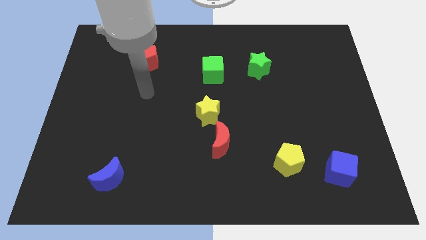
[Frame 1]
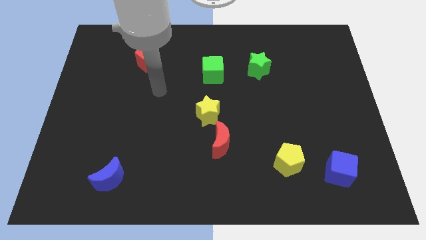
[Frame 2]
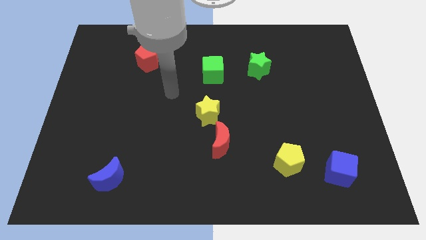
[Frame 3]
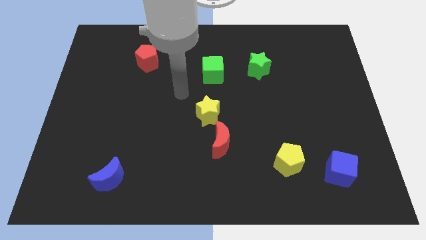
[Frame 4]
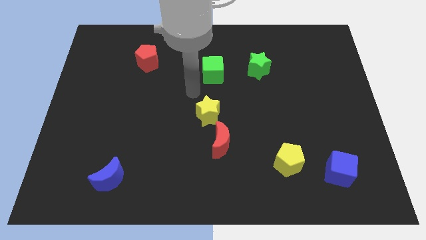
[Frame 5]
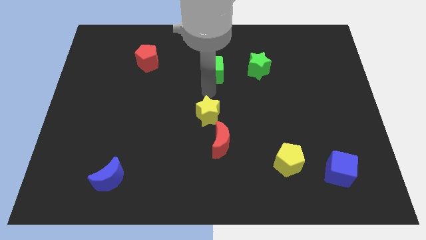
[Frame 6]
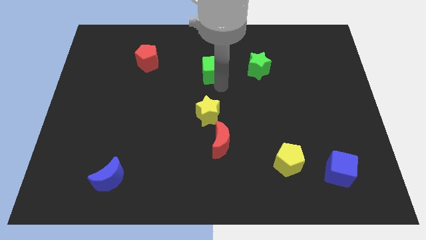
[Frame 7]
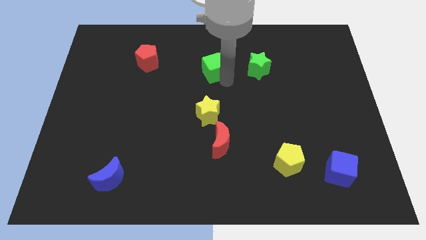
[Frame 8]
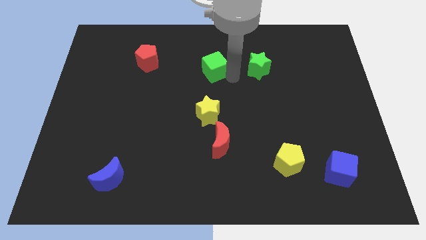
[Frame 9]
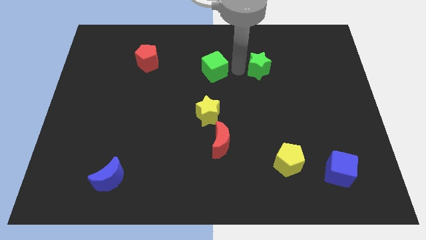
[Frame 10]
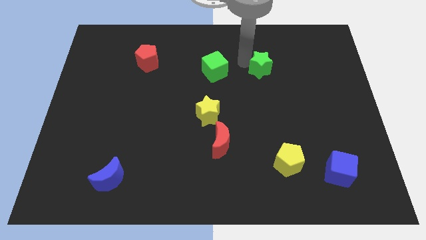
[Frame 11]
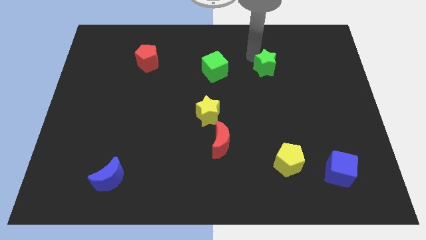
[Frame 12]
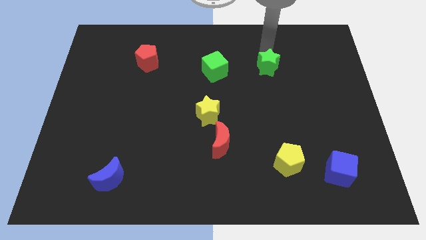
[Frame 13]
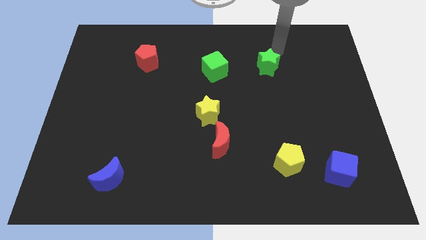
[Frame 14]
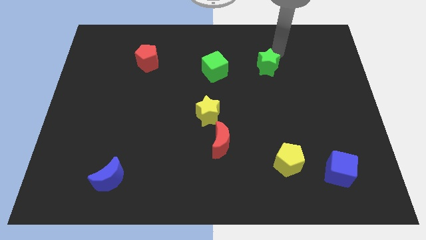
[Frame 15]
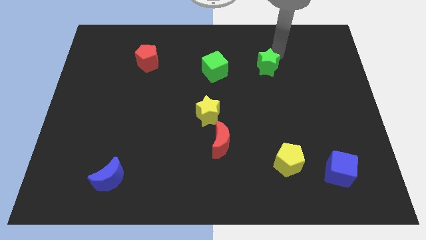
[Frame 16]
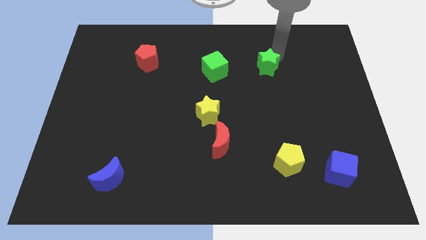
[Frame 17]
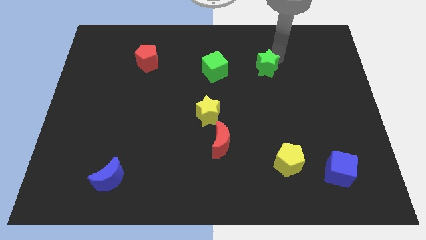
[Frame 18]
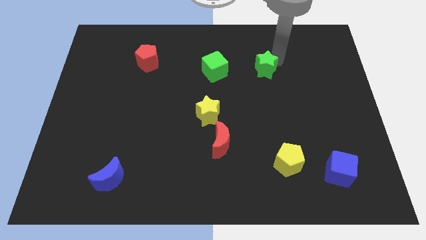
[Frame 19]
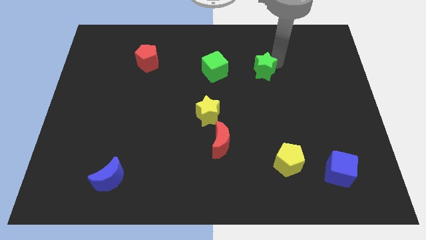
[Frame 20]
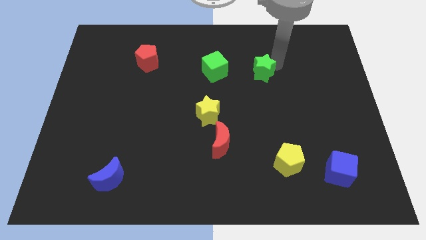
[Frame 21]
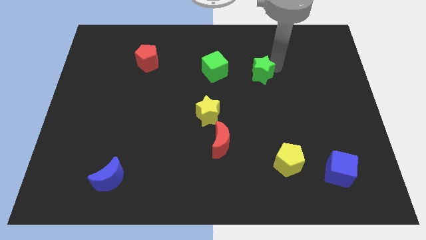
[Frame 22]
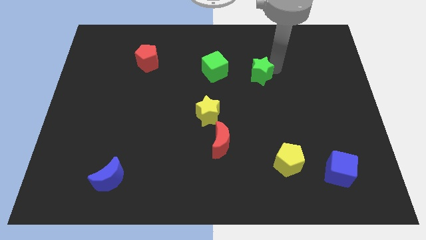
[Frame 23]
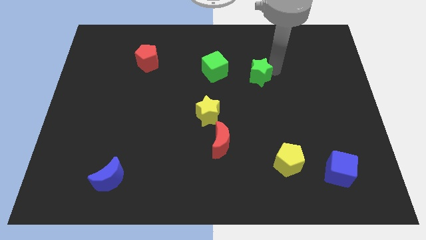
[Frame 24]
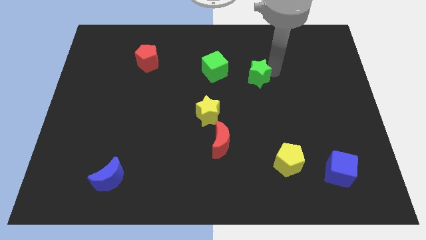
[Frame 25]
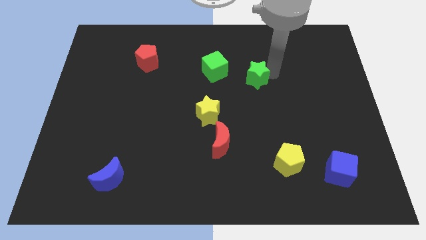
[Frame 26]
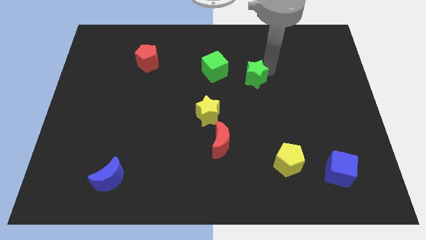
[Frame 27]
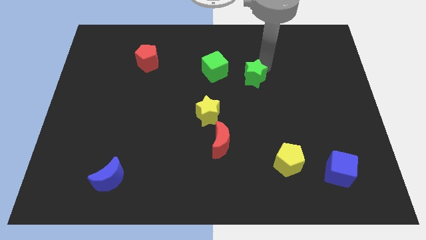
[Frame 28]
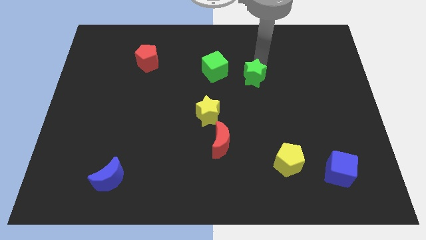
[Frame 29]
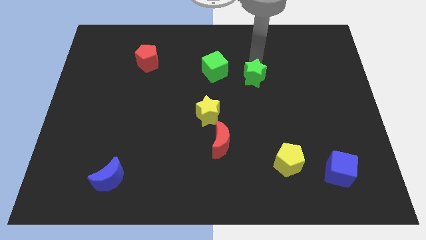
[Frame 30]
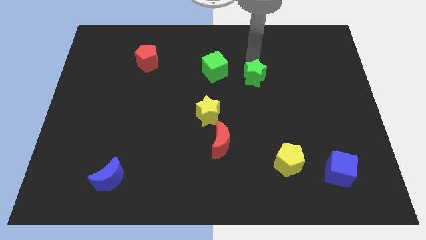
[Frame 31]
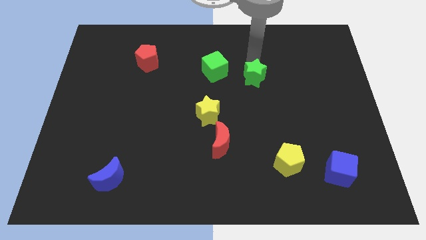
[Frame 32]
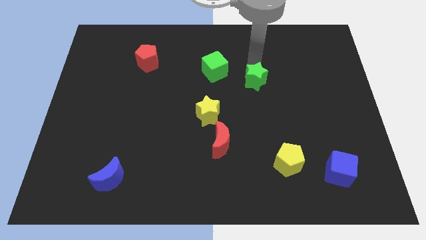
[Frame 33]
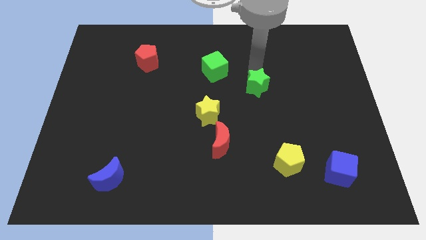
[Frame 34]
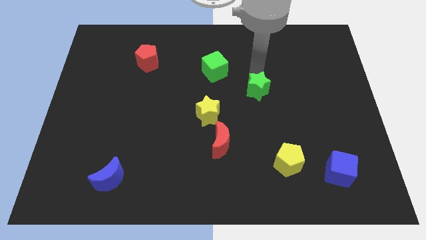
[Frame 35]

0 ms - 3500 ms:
slightly move the green star down

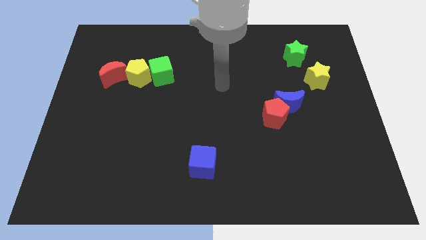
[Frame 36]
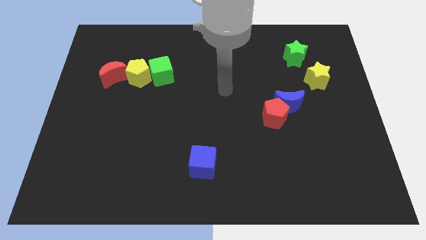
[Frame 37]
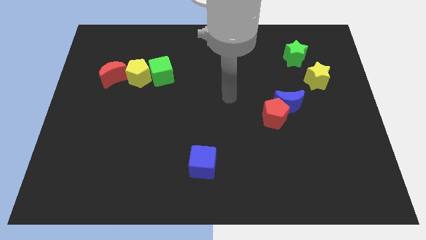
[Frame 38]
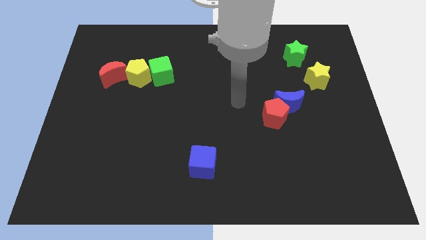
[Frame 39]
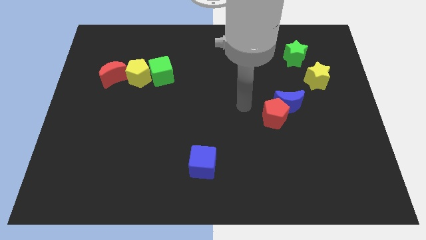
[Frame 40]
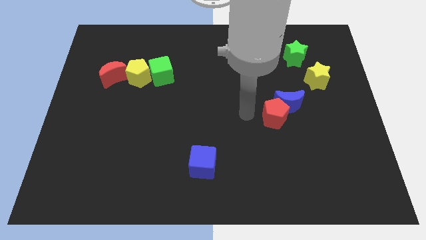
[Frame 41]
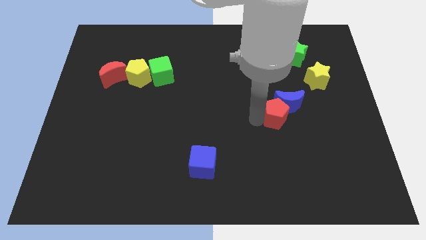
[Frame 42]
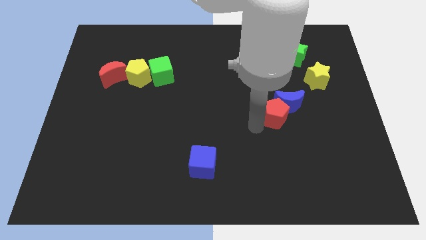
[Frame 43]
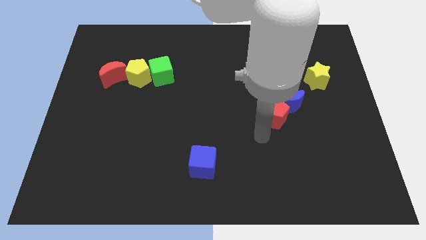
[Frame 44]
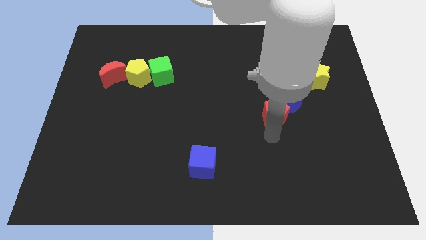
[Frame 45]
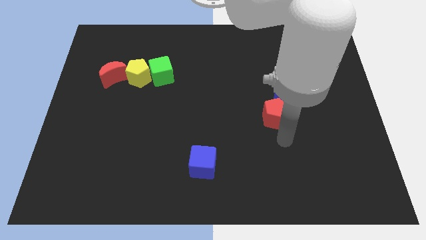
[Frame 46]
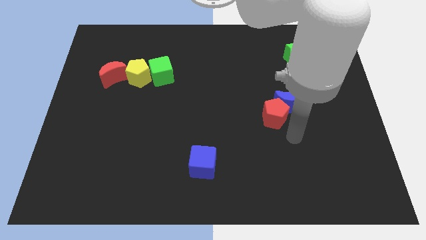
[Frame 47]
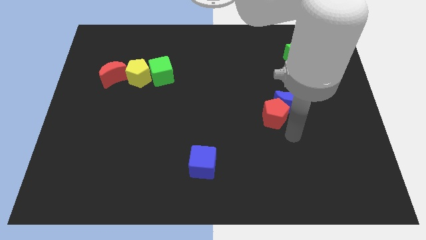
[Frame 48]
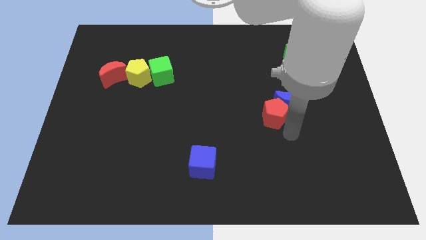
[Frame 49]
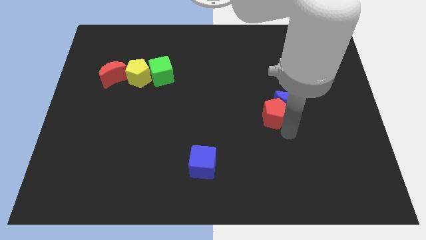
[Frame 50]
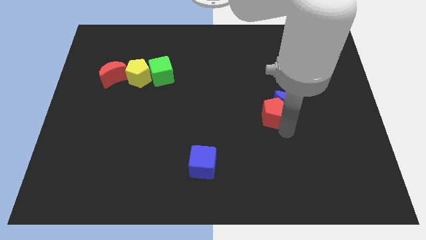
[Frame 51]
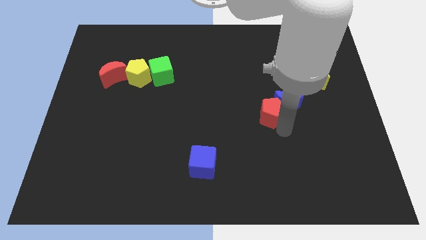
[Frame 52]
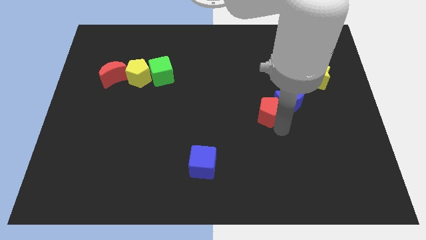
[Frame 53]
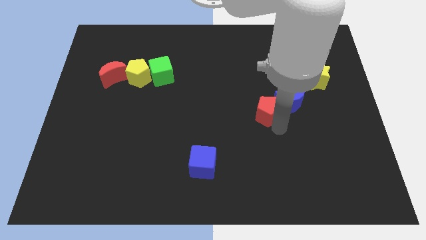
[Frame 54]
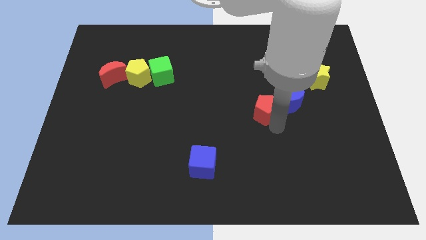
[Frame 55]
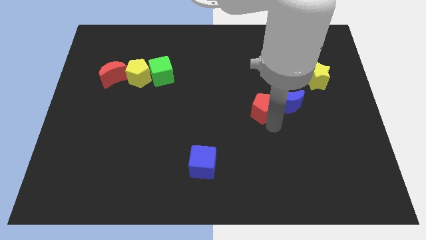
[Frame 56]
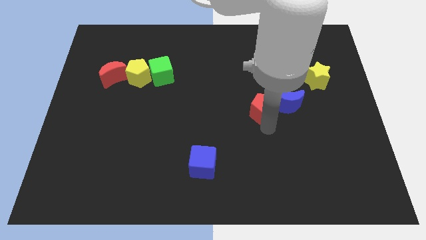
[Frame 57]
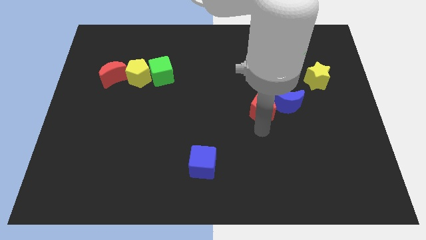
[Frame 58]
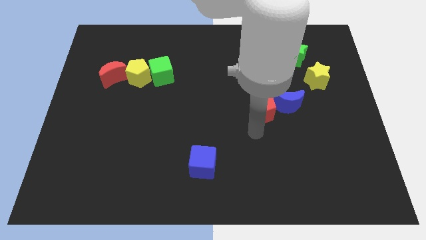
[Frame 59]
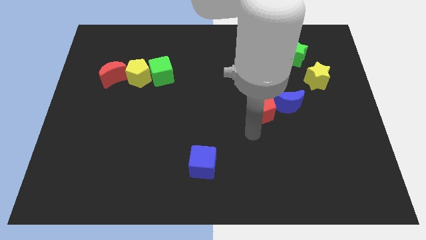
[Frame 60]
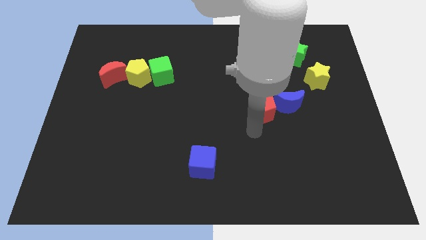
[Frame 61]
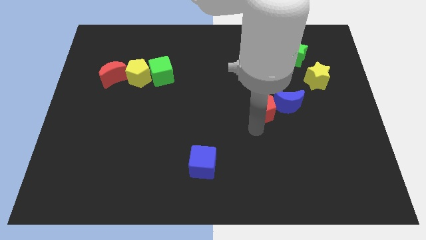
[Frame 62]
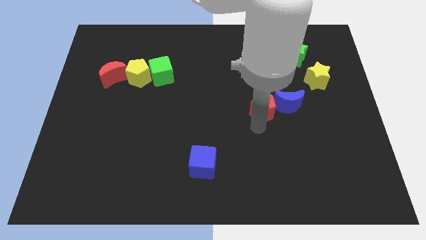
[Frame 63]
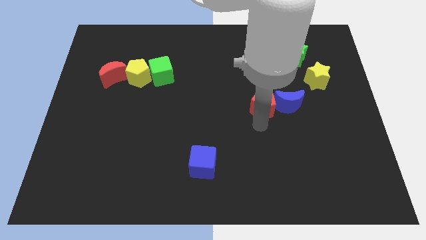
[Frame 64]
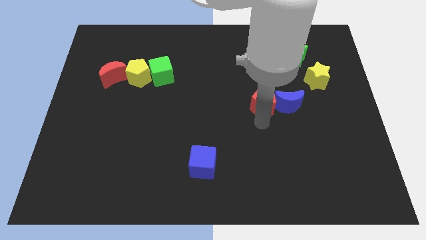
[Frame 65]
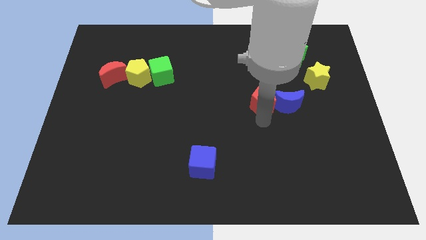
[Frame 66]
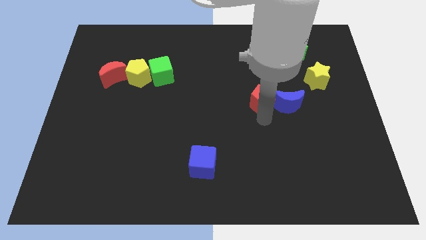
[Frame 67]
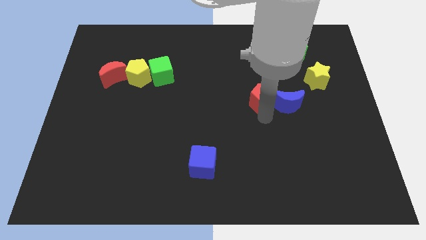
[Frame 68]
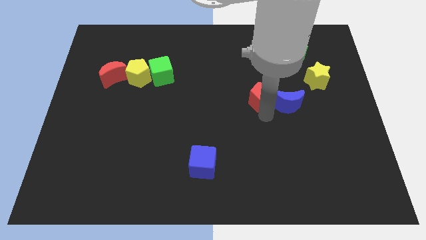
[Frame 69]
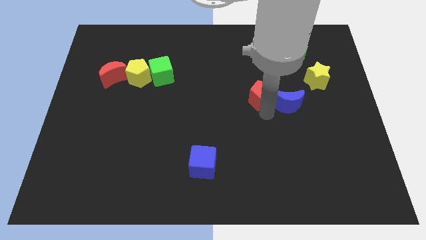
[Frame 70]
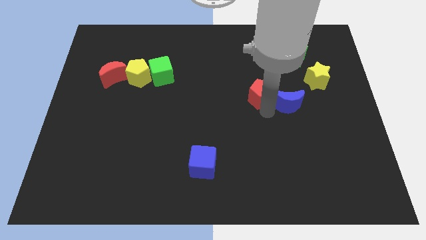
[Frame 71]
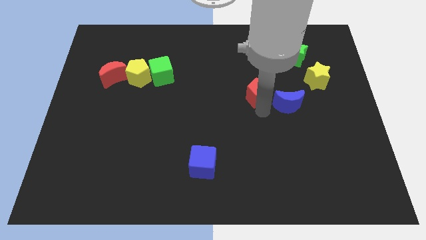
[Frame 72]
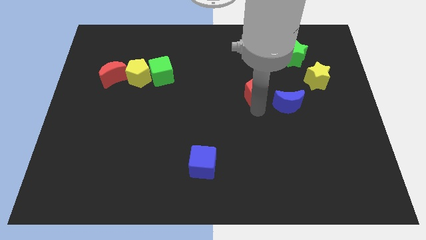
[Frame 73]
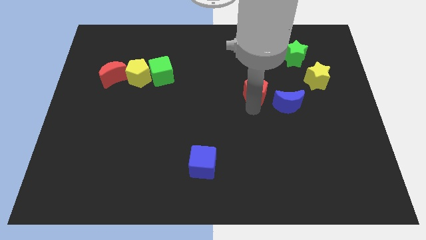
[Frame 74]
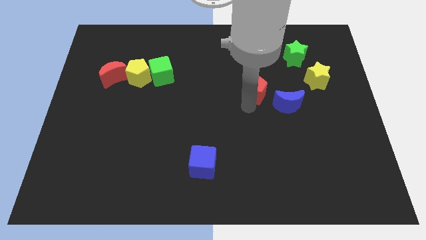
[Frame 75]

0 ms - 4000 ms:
slightly push the red pentagon up

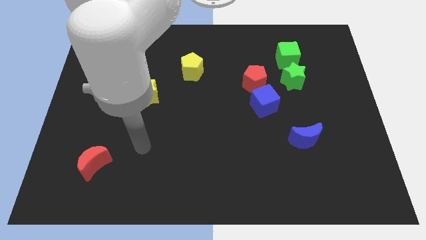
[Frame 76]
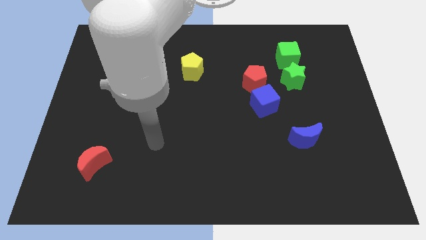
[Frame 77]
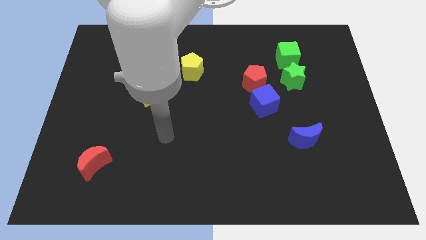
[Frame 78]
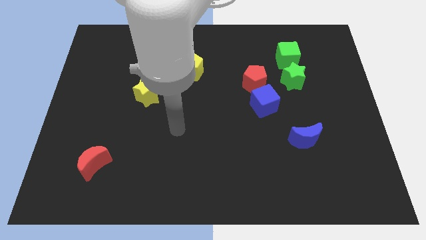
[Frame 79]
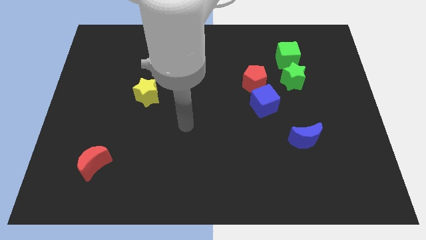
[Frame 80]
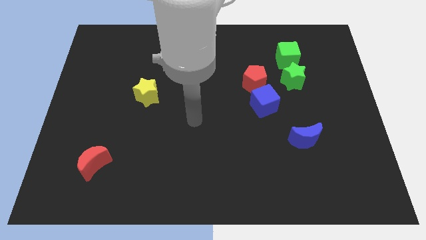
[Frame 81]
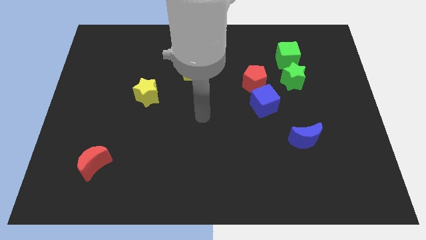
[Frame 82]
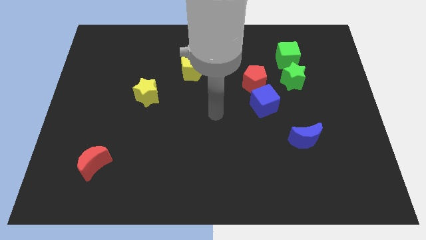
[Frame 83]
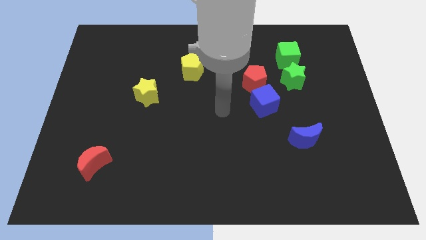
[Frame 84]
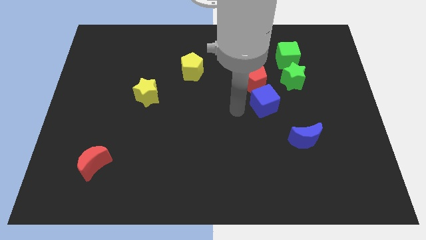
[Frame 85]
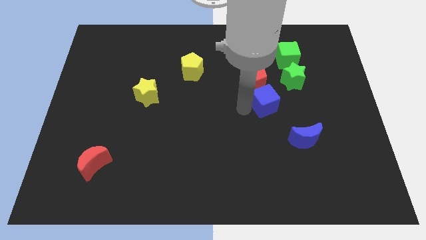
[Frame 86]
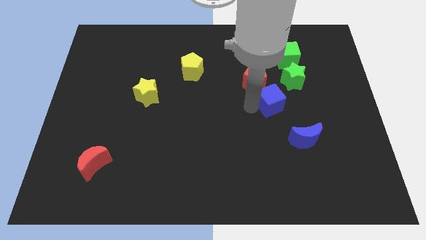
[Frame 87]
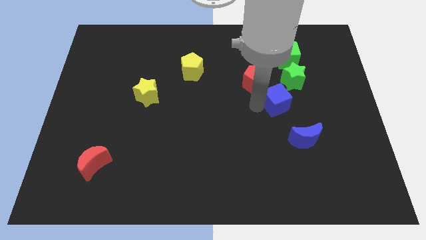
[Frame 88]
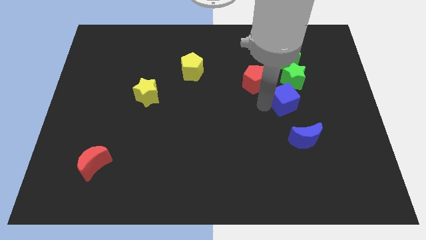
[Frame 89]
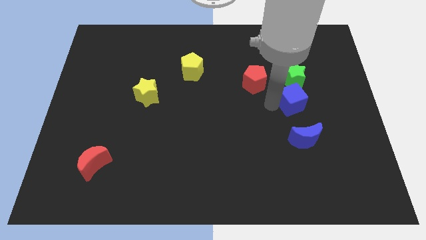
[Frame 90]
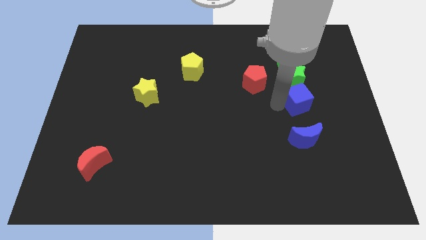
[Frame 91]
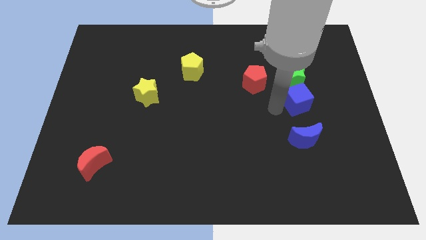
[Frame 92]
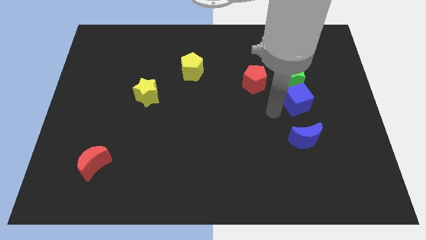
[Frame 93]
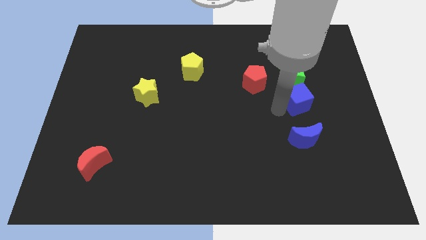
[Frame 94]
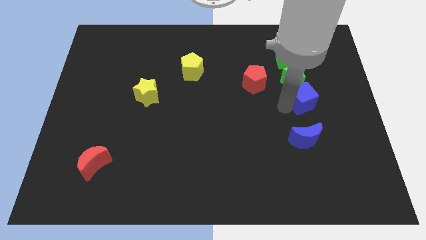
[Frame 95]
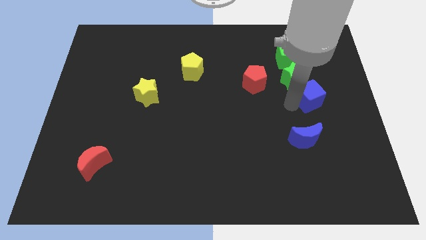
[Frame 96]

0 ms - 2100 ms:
move the blue cube up and to the right slightly
